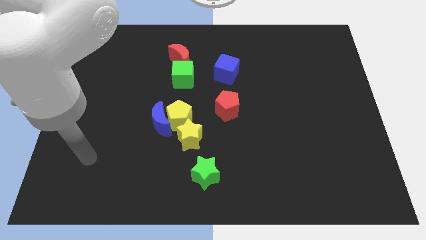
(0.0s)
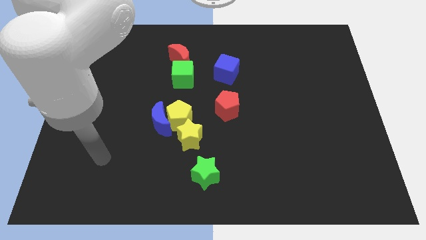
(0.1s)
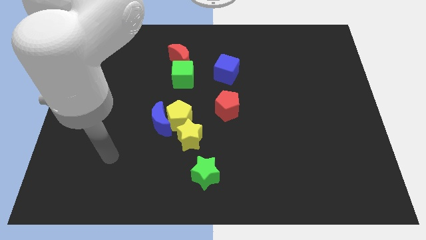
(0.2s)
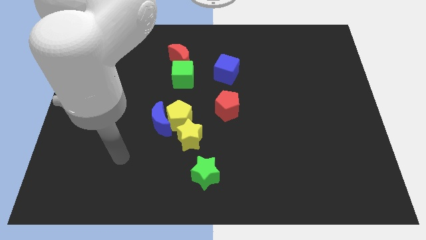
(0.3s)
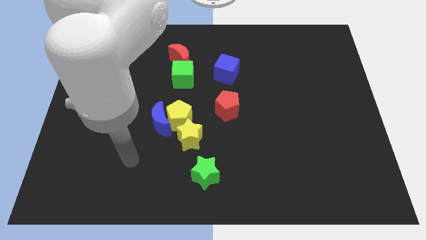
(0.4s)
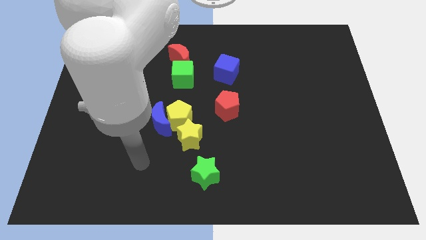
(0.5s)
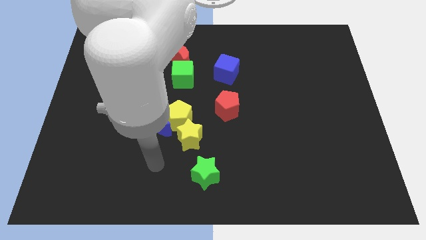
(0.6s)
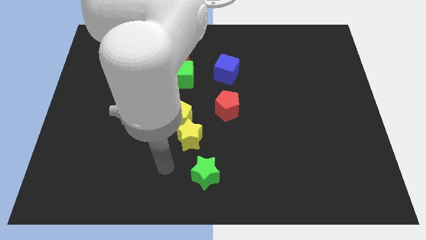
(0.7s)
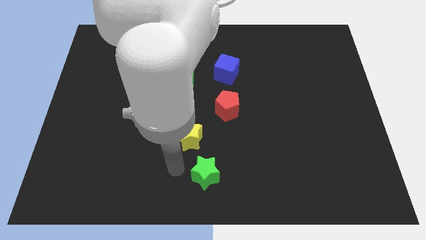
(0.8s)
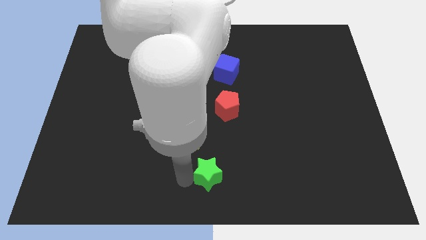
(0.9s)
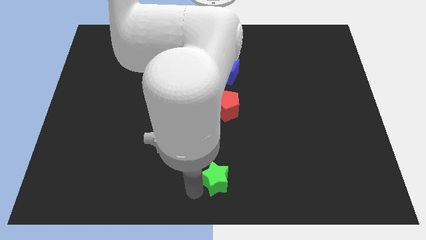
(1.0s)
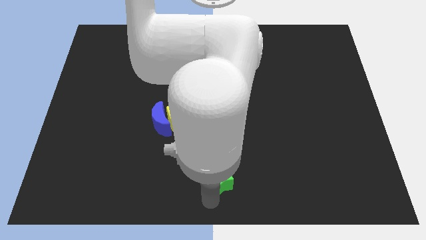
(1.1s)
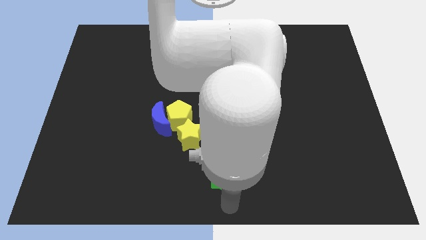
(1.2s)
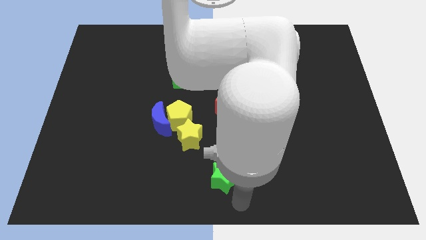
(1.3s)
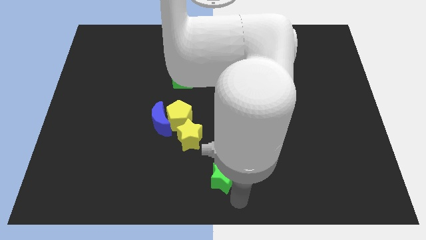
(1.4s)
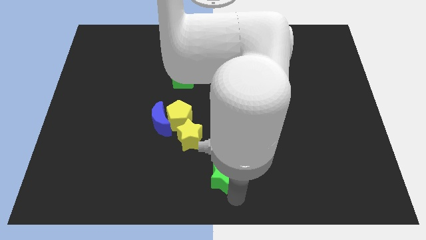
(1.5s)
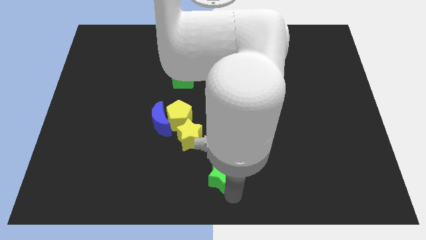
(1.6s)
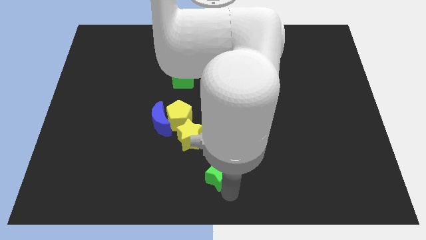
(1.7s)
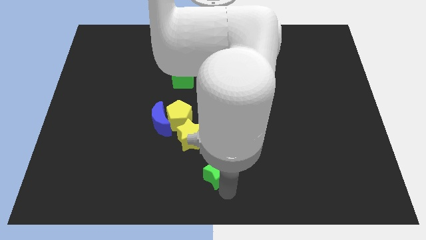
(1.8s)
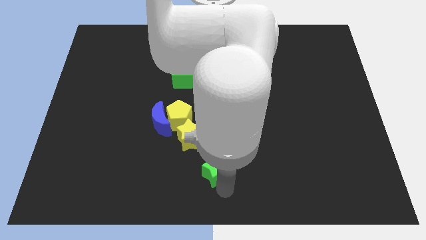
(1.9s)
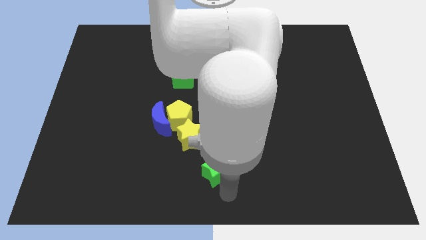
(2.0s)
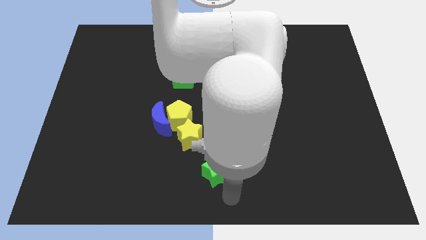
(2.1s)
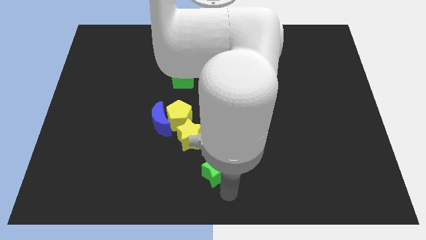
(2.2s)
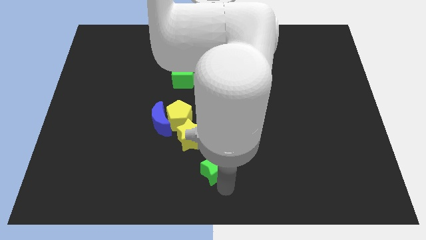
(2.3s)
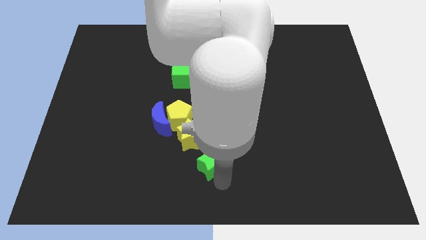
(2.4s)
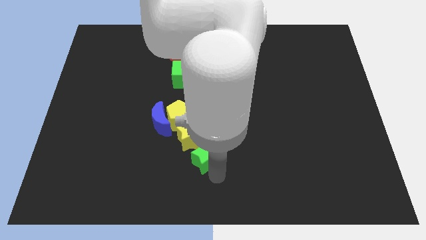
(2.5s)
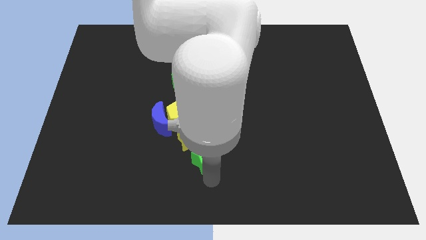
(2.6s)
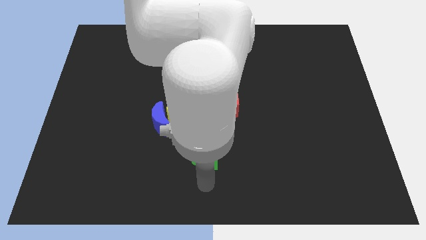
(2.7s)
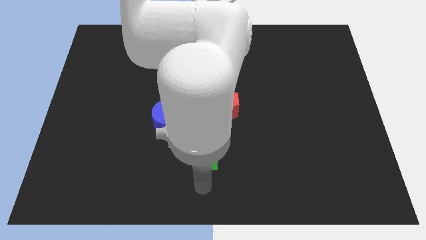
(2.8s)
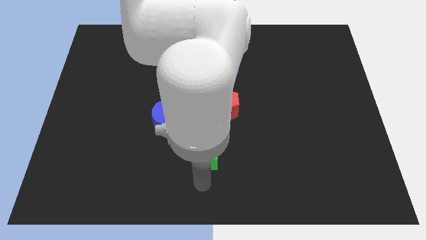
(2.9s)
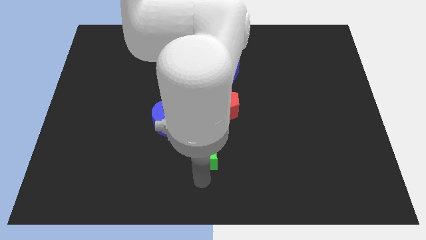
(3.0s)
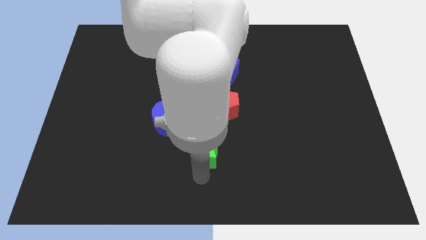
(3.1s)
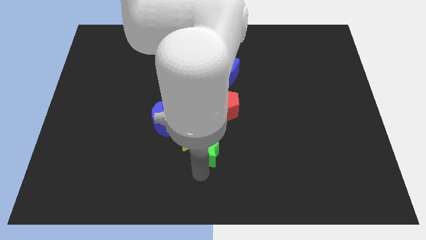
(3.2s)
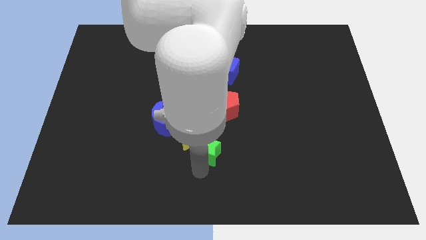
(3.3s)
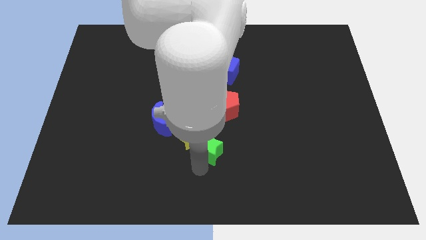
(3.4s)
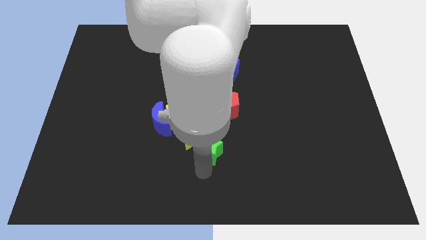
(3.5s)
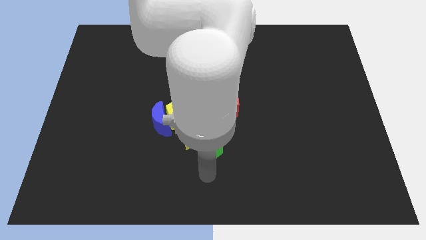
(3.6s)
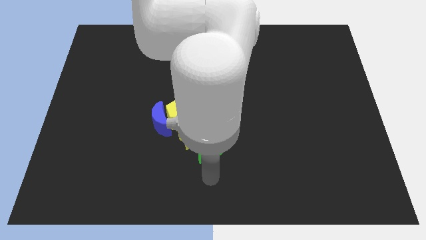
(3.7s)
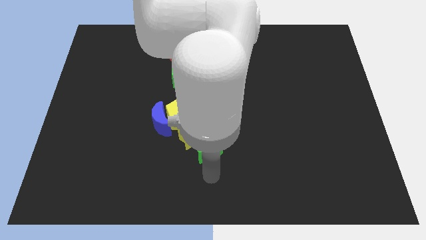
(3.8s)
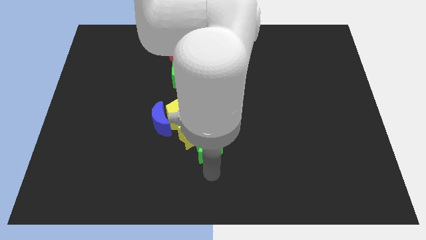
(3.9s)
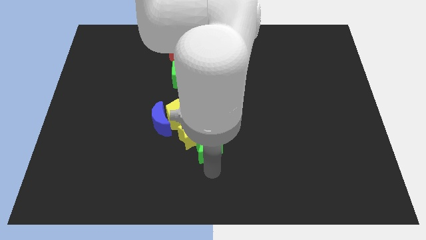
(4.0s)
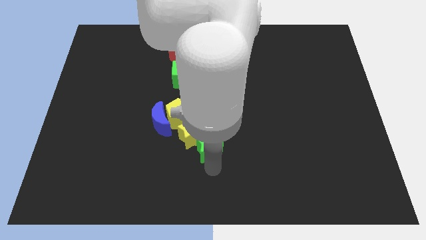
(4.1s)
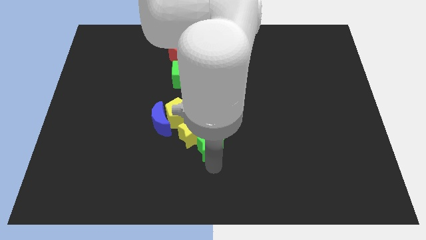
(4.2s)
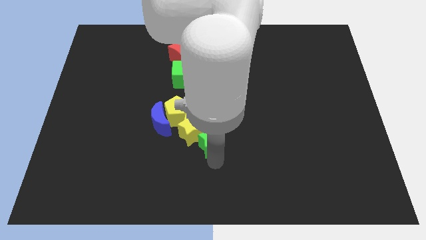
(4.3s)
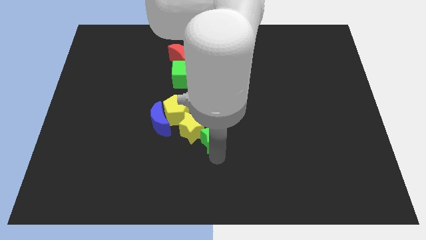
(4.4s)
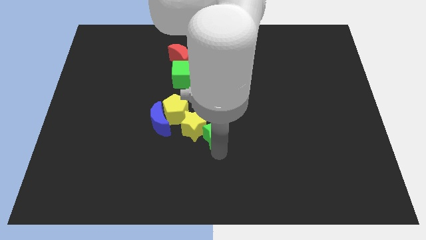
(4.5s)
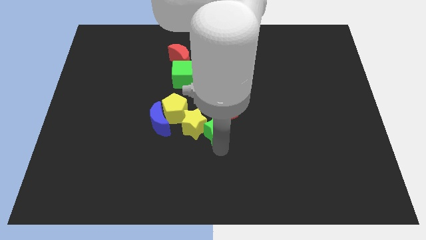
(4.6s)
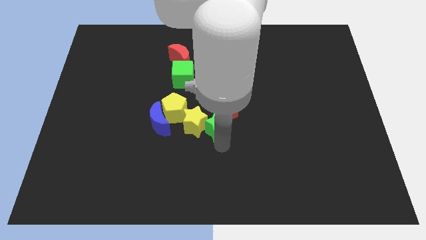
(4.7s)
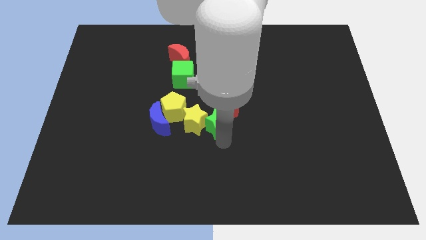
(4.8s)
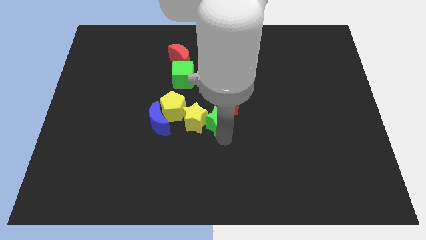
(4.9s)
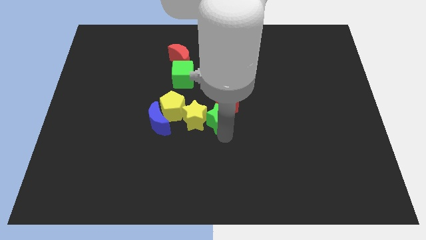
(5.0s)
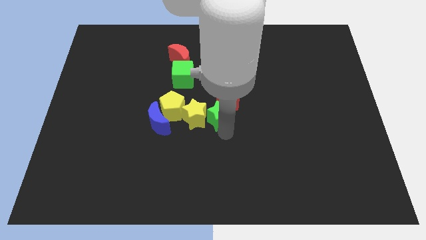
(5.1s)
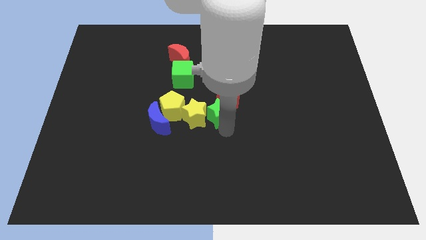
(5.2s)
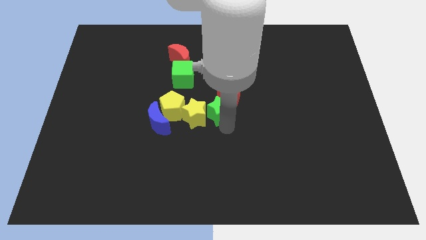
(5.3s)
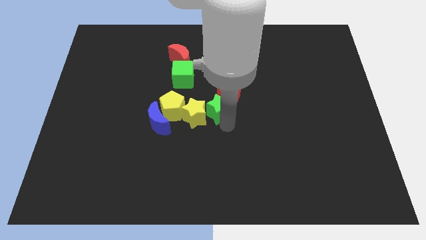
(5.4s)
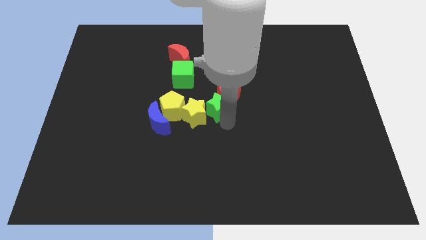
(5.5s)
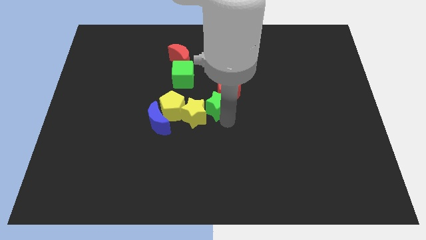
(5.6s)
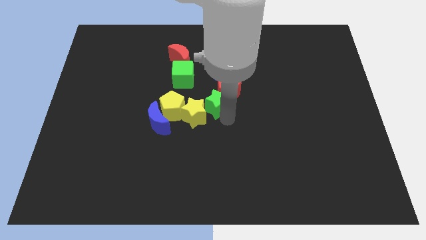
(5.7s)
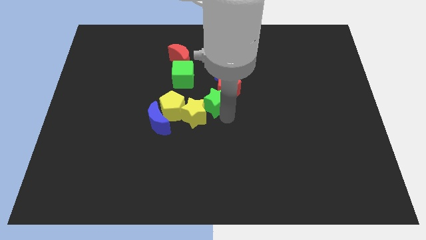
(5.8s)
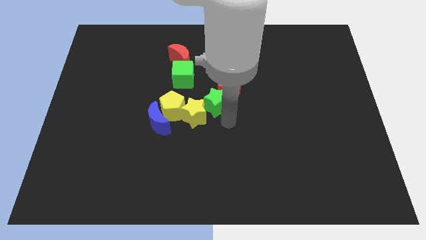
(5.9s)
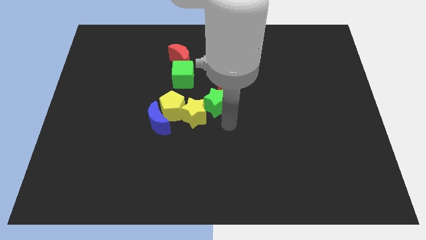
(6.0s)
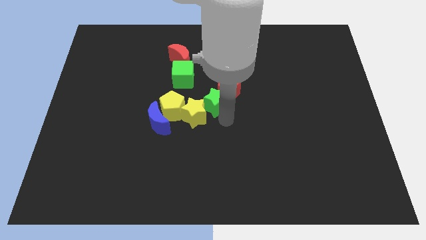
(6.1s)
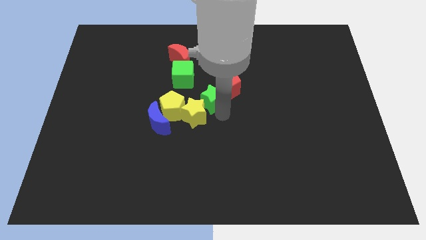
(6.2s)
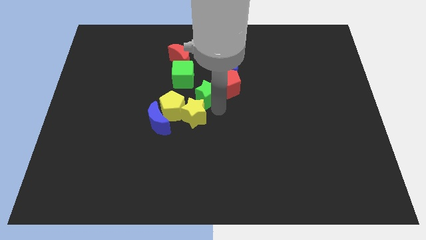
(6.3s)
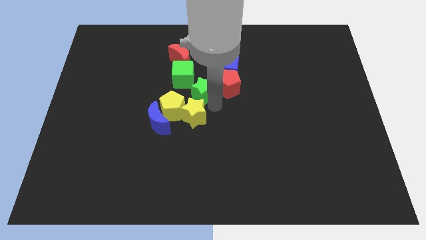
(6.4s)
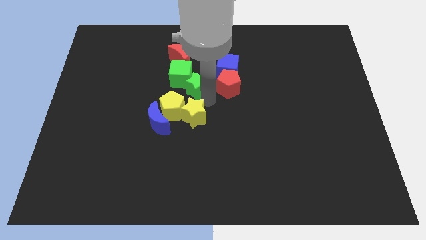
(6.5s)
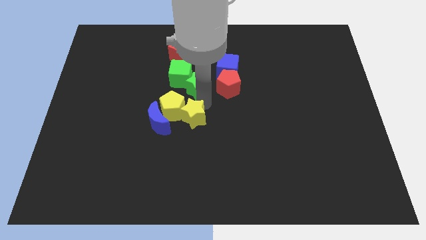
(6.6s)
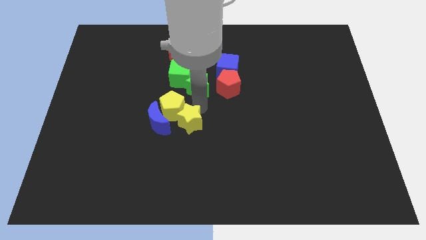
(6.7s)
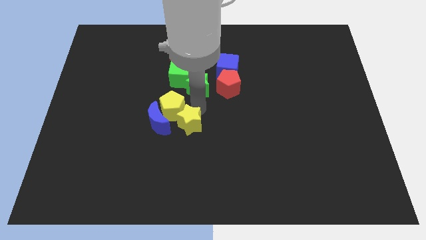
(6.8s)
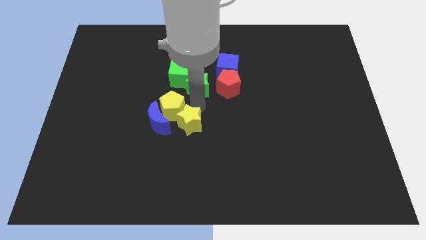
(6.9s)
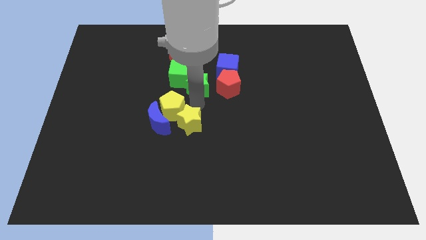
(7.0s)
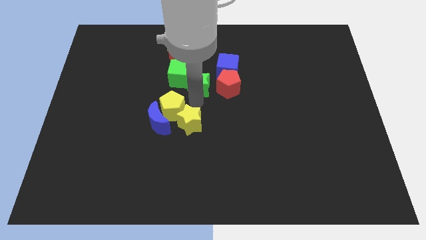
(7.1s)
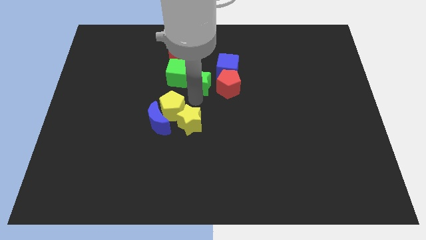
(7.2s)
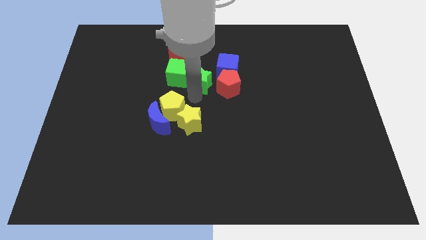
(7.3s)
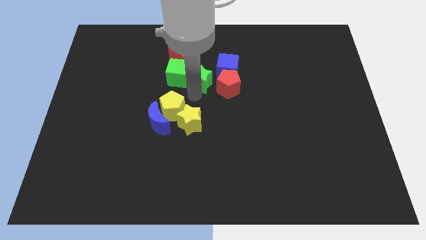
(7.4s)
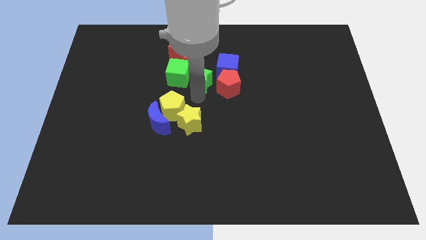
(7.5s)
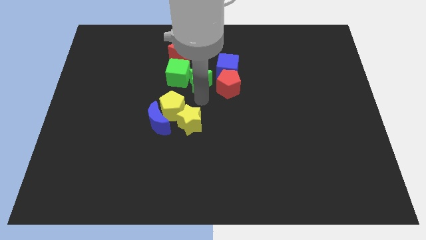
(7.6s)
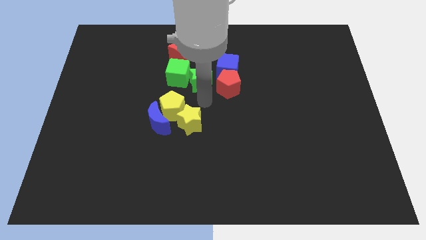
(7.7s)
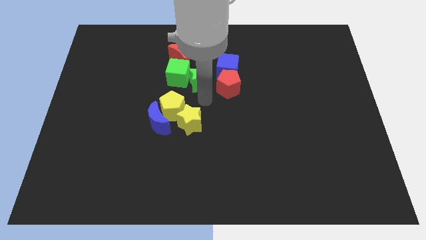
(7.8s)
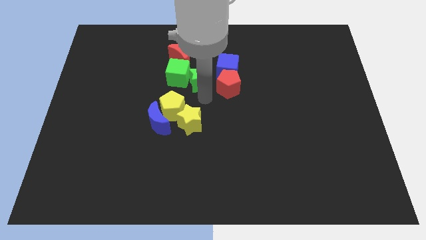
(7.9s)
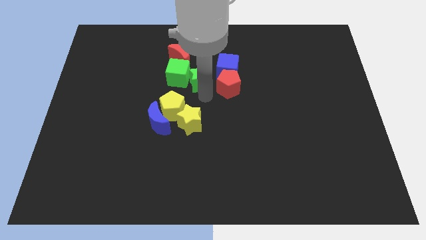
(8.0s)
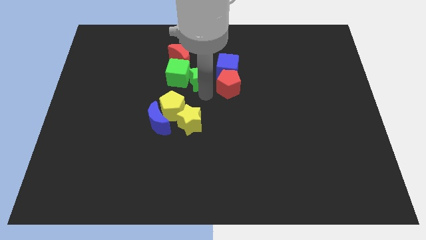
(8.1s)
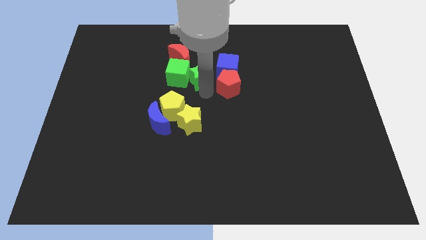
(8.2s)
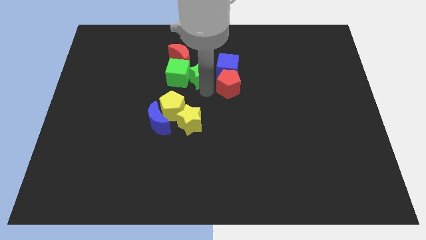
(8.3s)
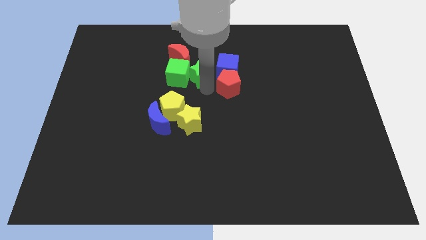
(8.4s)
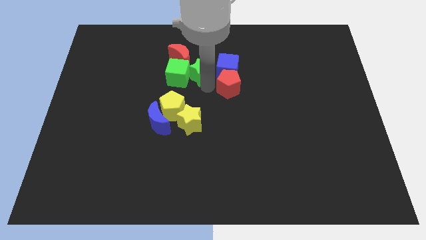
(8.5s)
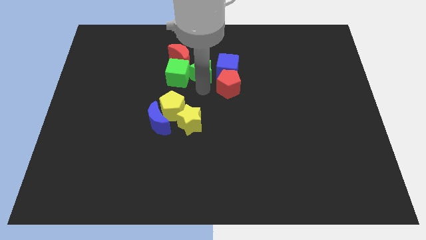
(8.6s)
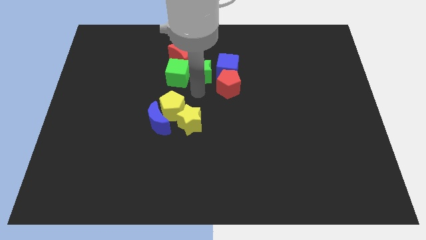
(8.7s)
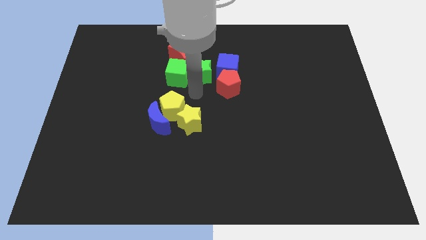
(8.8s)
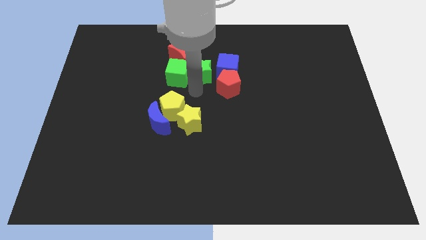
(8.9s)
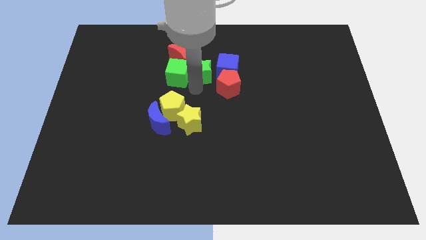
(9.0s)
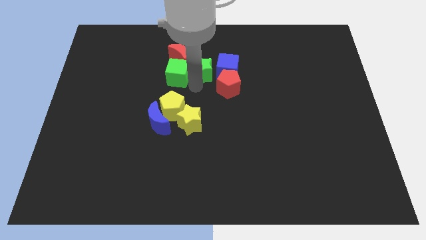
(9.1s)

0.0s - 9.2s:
move the green star diagonally up and to the left of the blue cube
